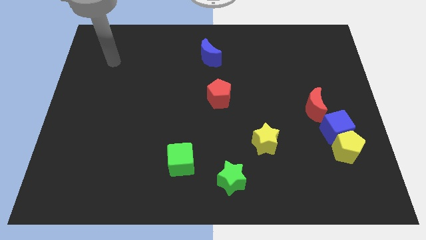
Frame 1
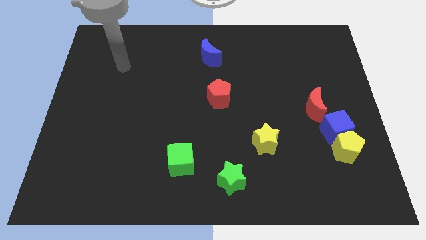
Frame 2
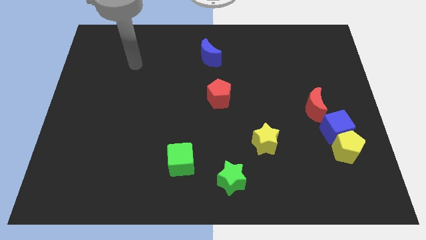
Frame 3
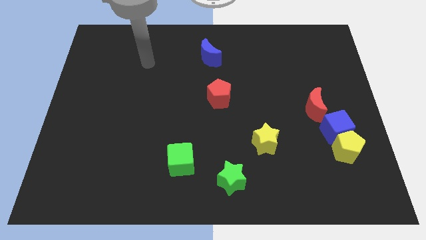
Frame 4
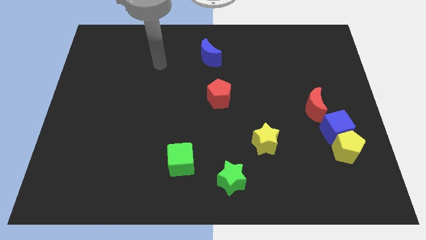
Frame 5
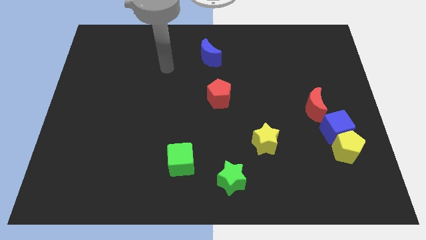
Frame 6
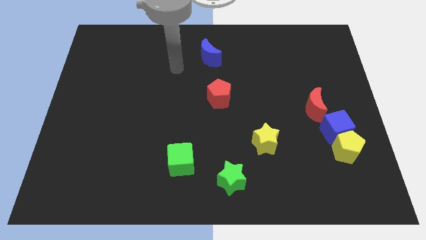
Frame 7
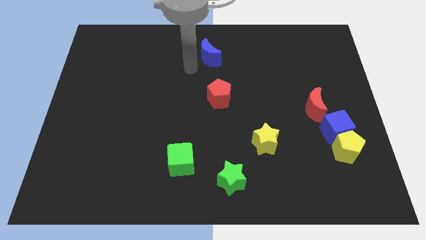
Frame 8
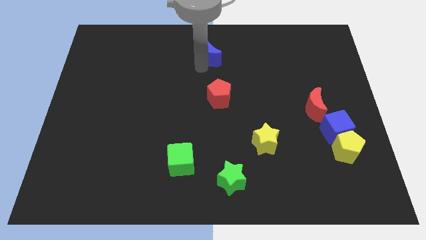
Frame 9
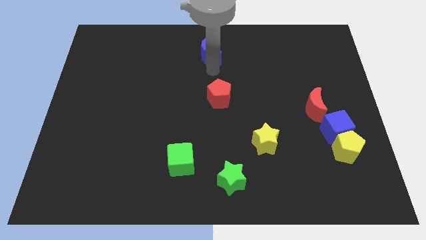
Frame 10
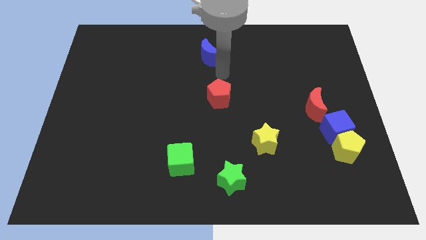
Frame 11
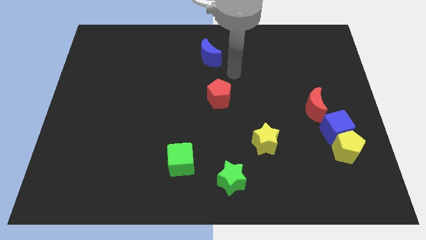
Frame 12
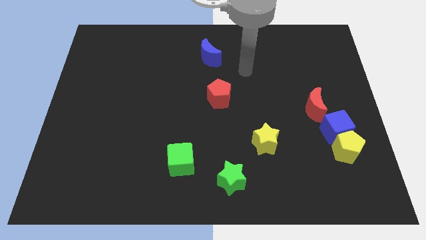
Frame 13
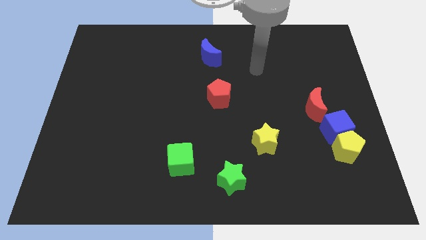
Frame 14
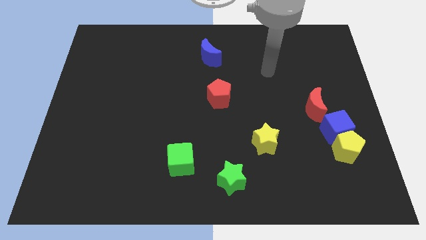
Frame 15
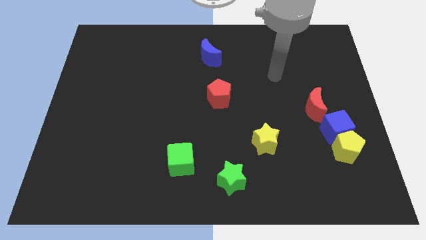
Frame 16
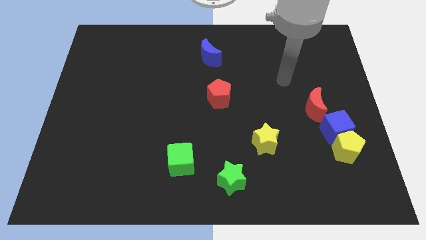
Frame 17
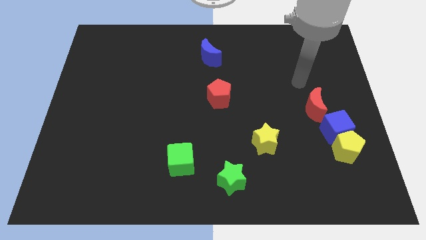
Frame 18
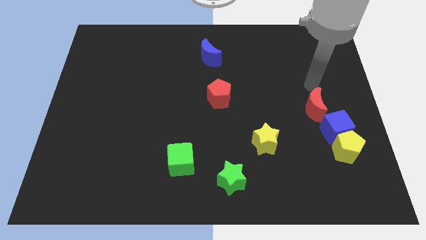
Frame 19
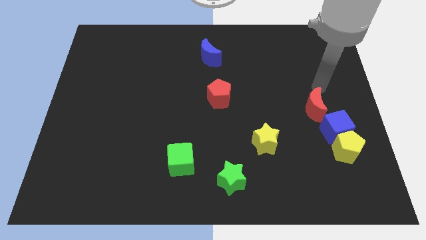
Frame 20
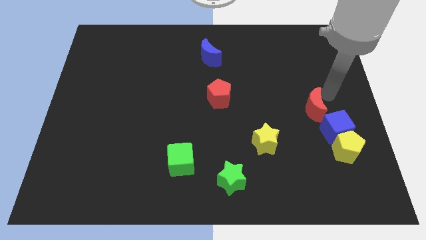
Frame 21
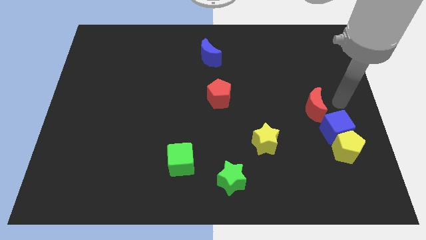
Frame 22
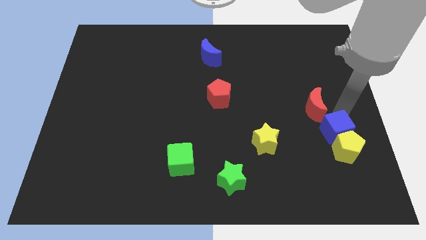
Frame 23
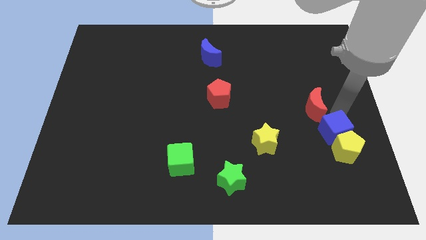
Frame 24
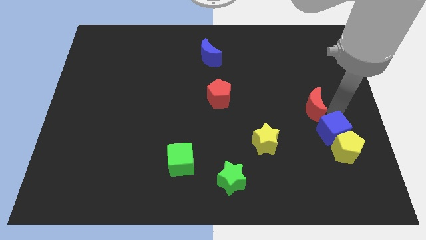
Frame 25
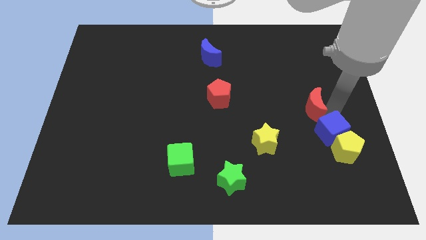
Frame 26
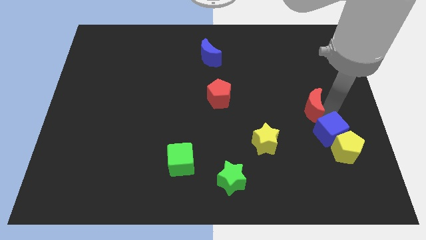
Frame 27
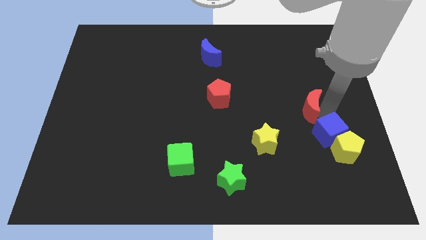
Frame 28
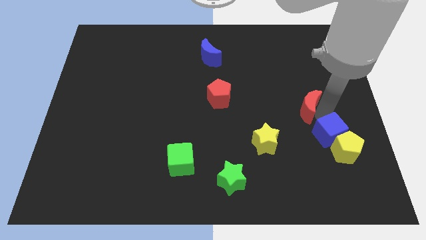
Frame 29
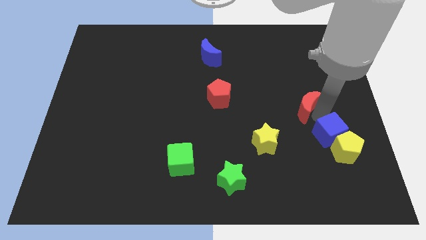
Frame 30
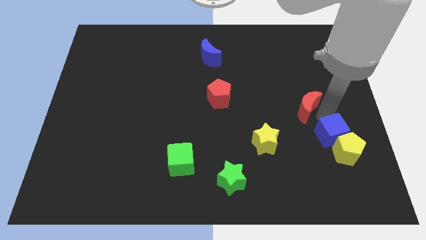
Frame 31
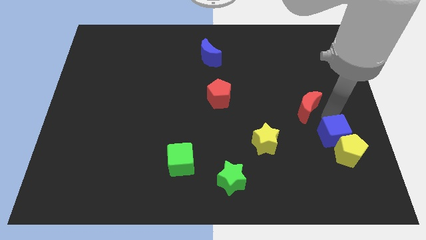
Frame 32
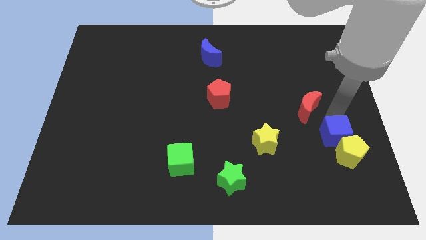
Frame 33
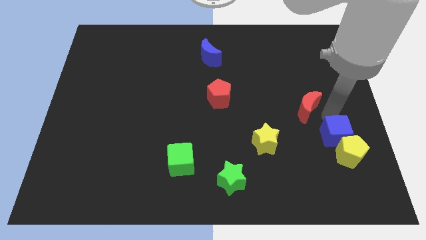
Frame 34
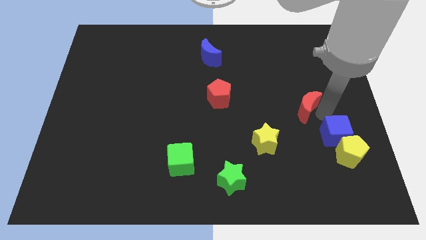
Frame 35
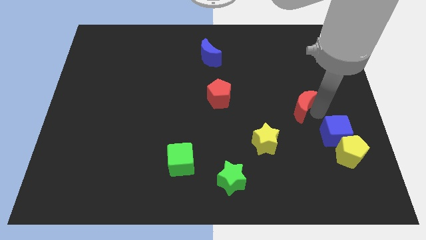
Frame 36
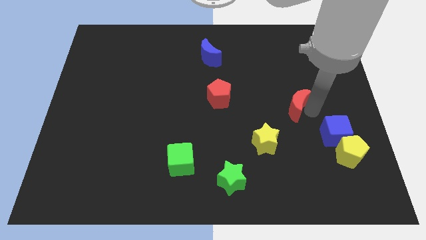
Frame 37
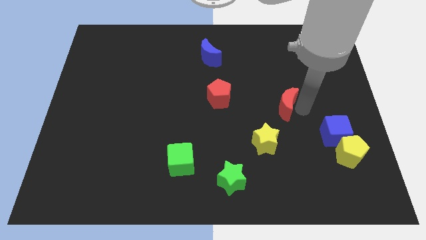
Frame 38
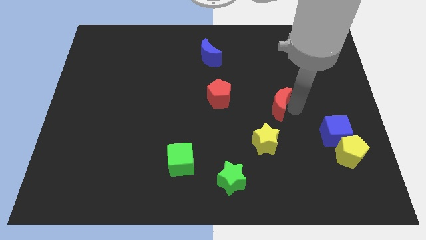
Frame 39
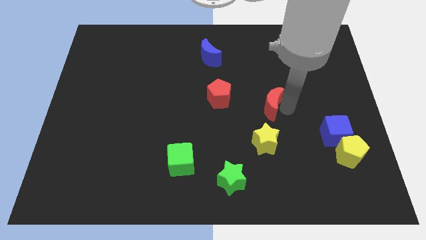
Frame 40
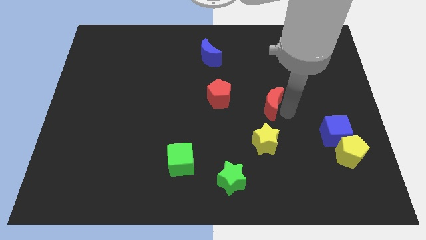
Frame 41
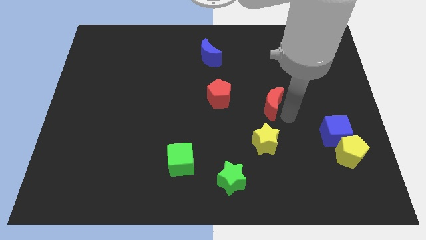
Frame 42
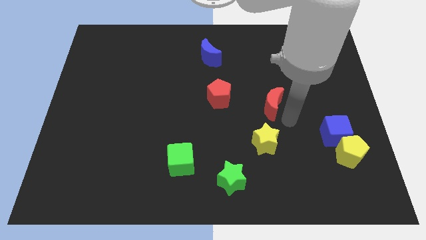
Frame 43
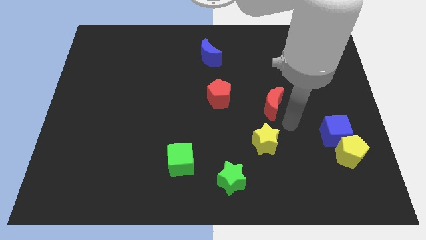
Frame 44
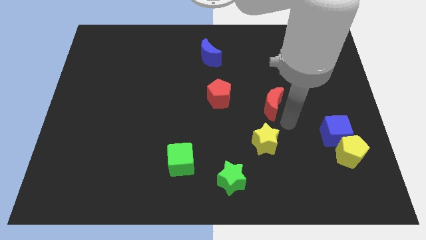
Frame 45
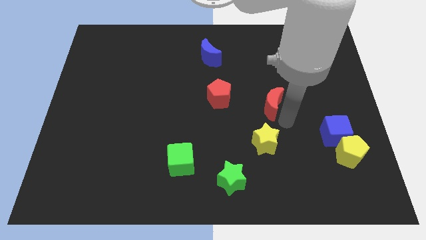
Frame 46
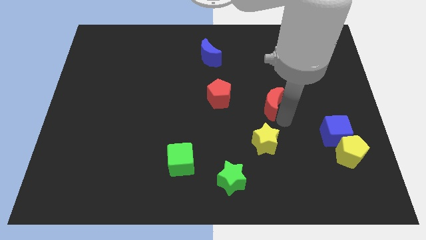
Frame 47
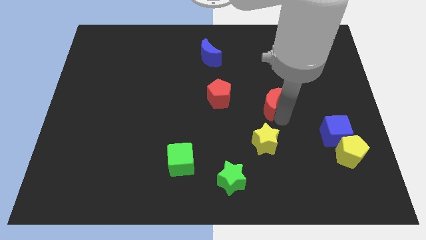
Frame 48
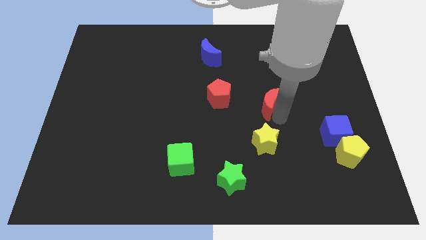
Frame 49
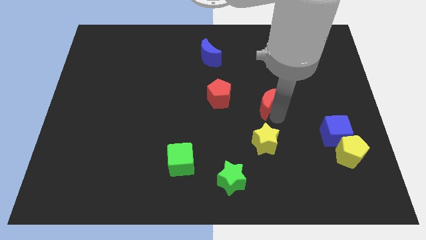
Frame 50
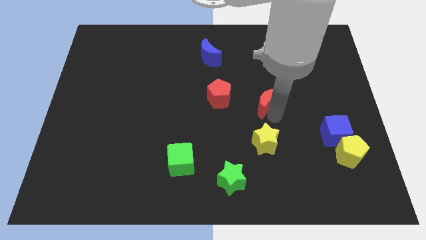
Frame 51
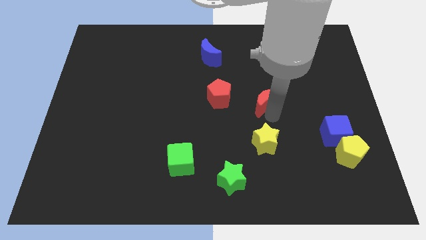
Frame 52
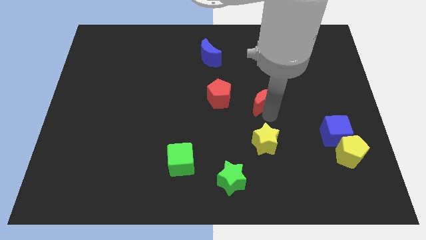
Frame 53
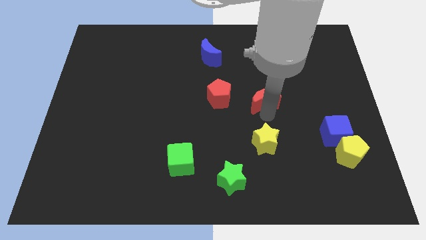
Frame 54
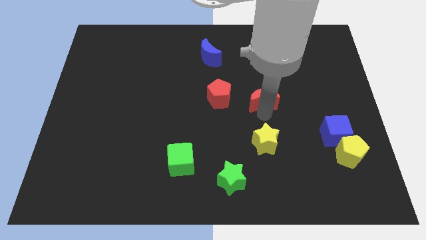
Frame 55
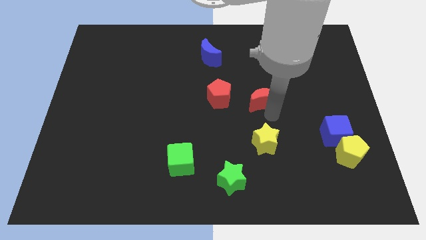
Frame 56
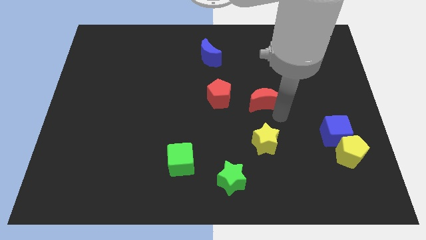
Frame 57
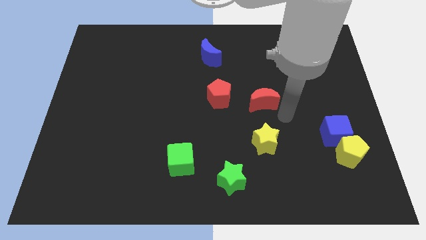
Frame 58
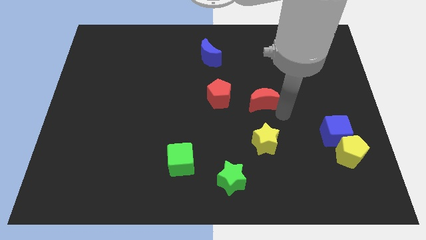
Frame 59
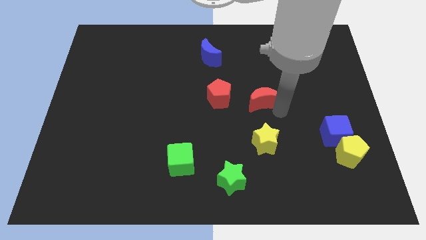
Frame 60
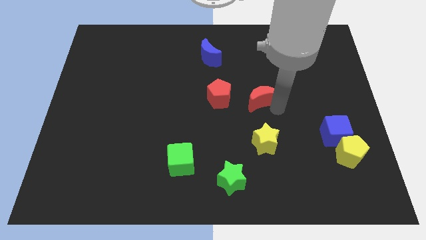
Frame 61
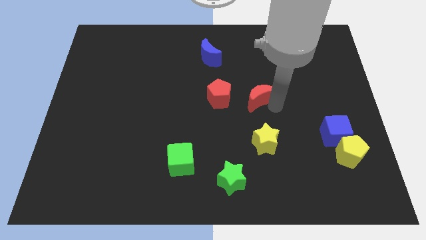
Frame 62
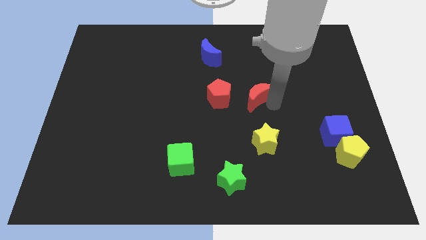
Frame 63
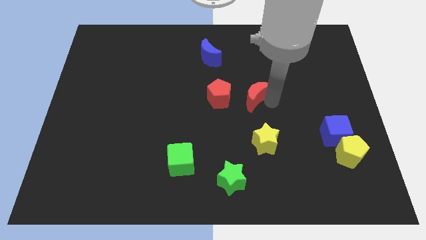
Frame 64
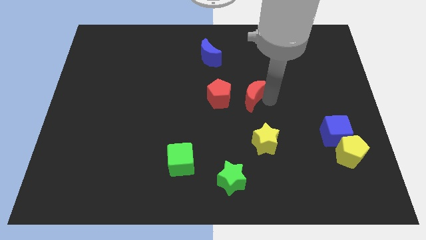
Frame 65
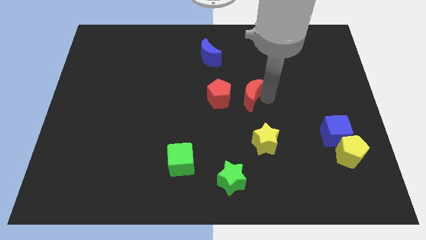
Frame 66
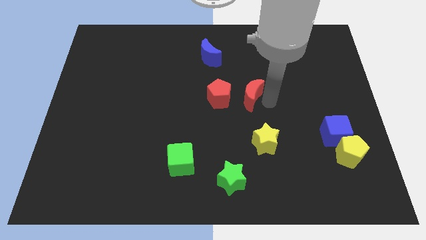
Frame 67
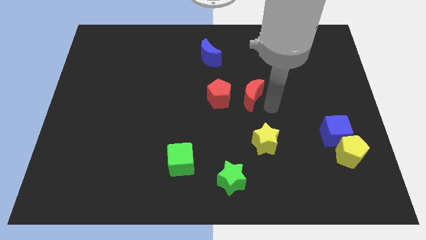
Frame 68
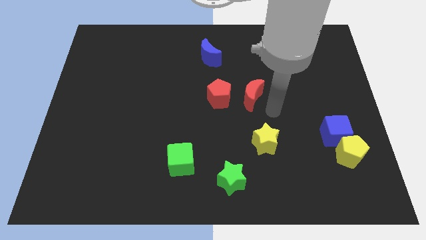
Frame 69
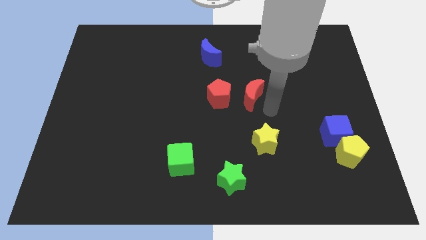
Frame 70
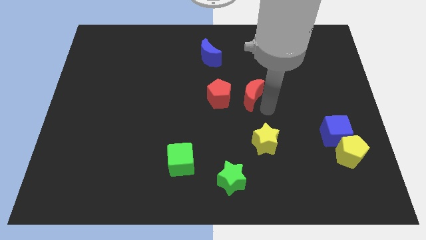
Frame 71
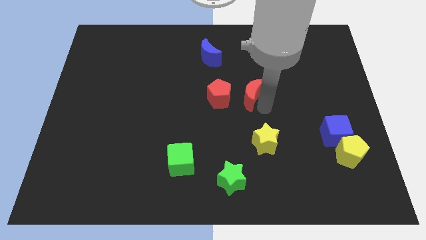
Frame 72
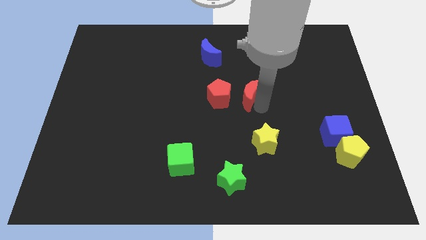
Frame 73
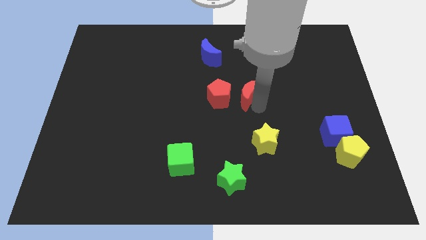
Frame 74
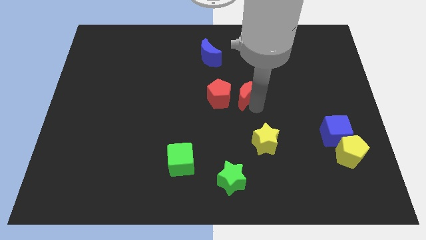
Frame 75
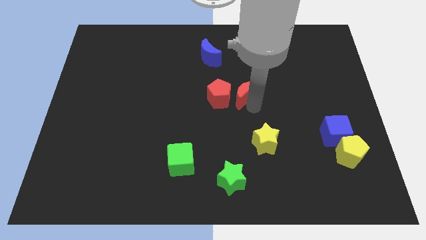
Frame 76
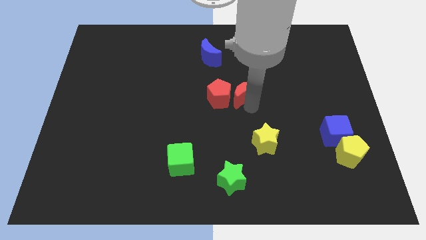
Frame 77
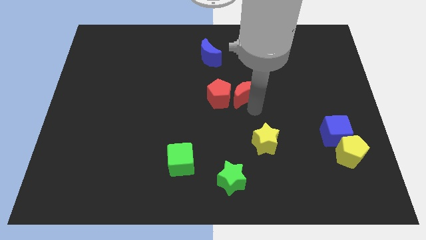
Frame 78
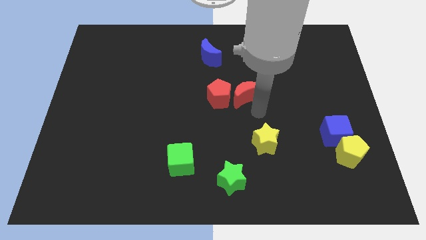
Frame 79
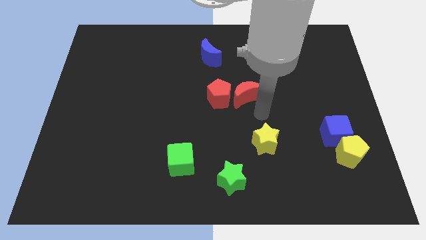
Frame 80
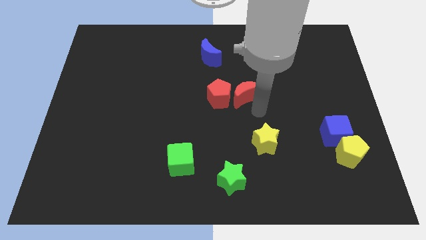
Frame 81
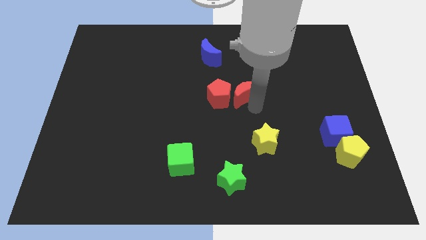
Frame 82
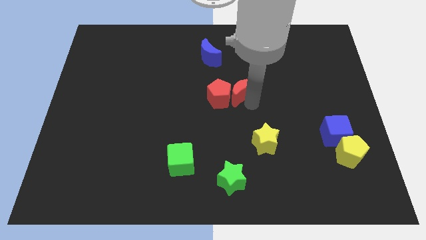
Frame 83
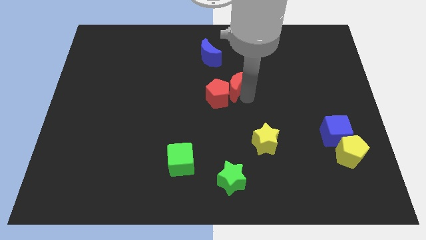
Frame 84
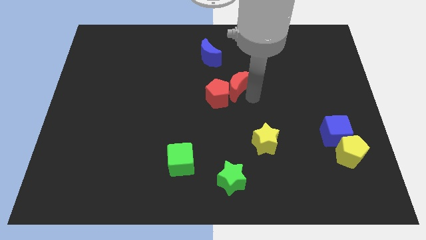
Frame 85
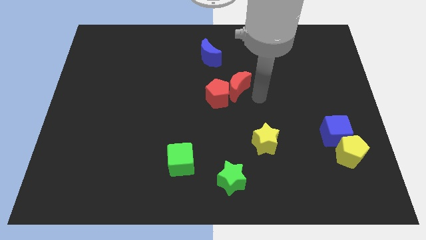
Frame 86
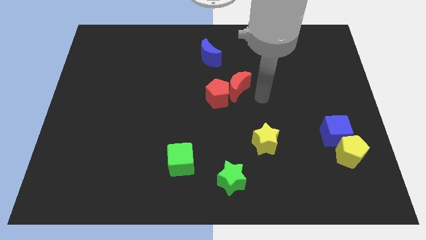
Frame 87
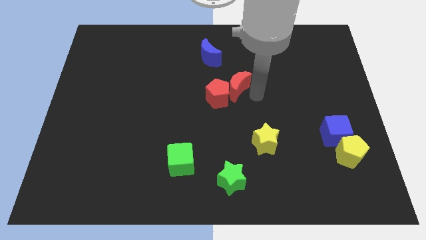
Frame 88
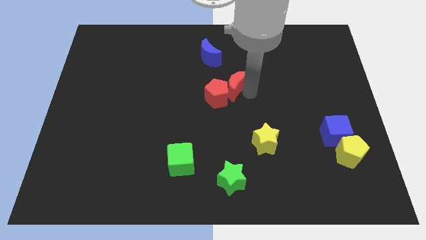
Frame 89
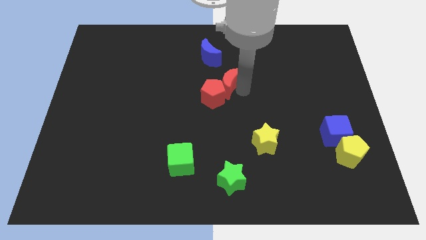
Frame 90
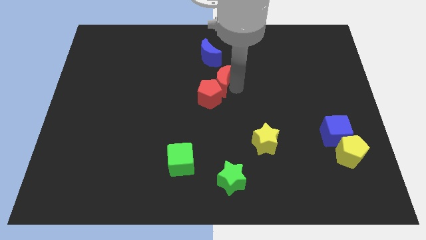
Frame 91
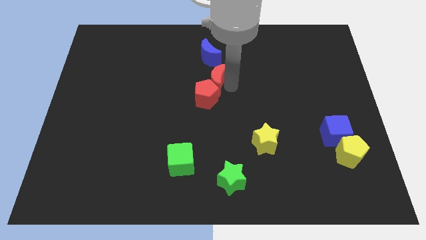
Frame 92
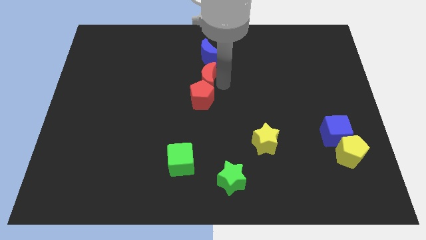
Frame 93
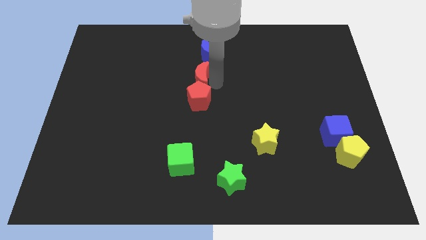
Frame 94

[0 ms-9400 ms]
slide the red moon to the bottom left of the blue moon
